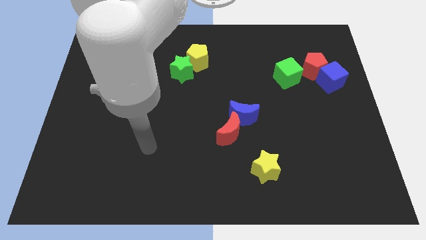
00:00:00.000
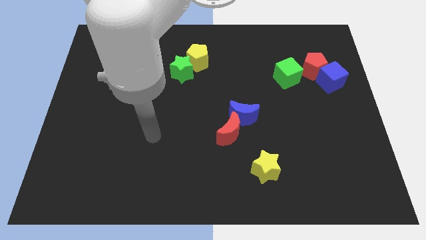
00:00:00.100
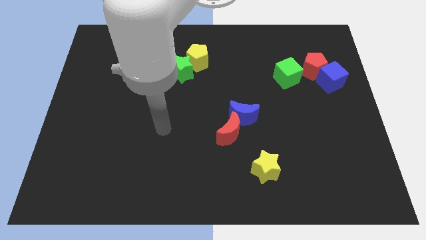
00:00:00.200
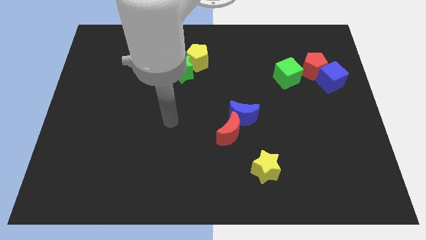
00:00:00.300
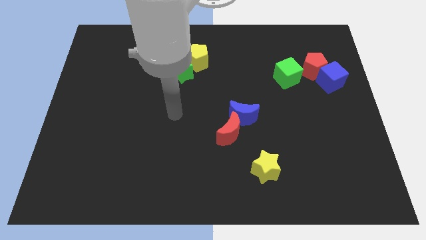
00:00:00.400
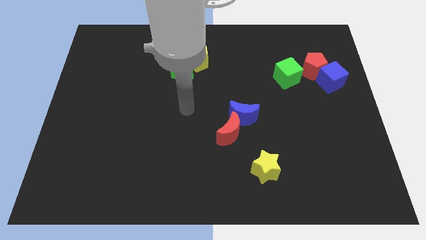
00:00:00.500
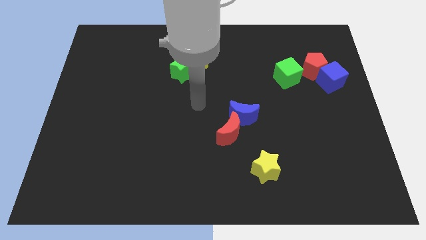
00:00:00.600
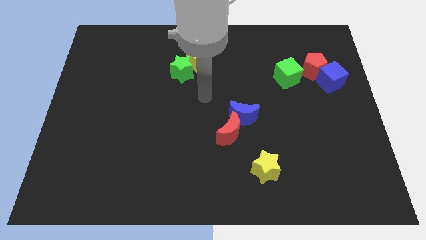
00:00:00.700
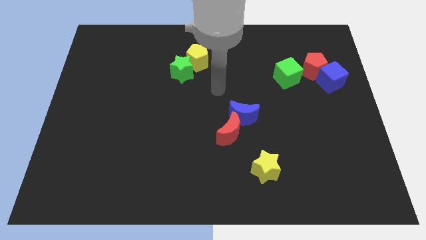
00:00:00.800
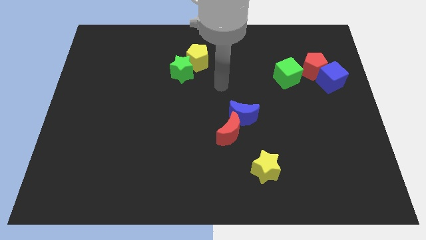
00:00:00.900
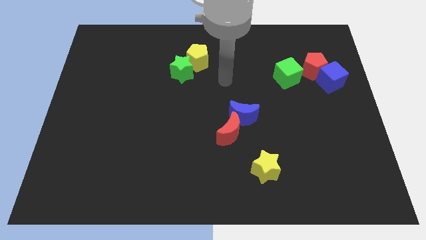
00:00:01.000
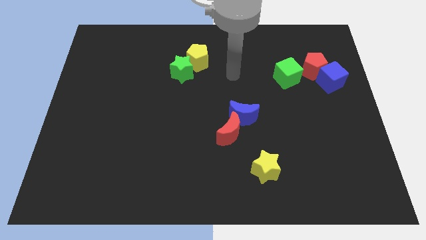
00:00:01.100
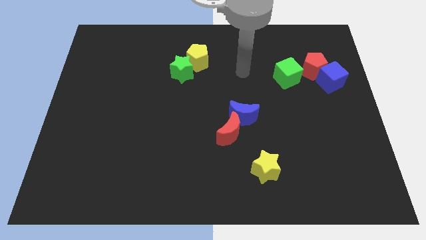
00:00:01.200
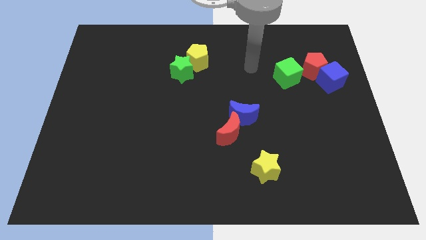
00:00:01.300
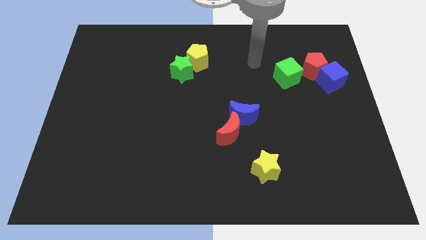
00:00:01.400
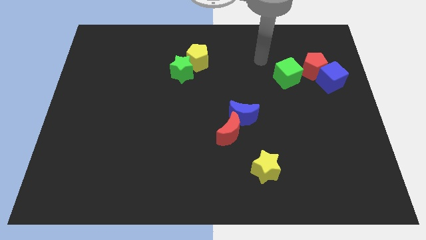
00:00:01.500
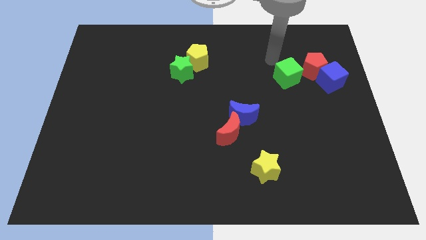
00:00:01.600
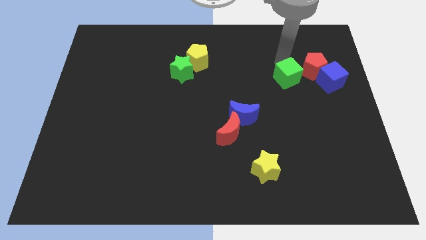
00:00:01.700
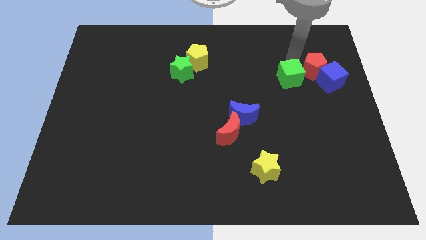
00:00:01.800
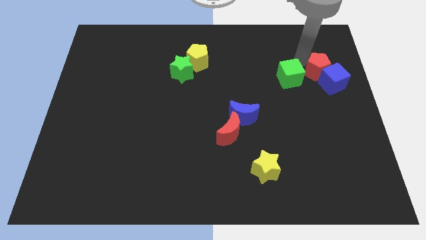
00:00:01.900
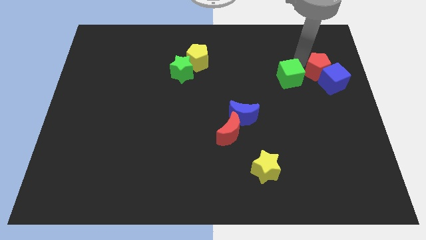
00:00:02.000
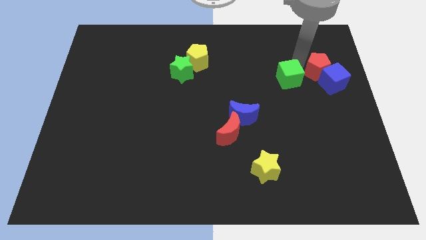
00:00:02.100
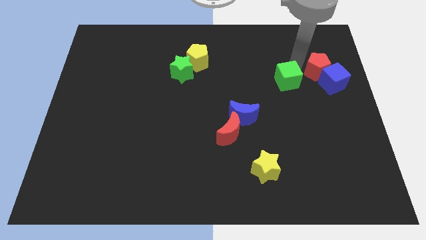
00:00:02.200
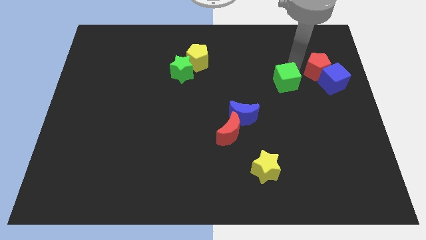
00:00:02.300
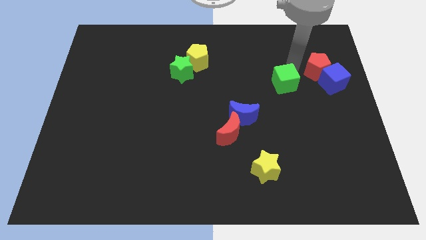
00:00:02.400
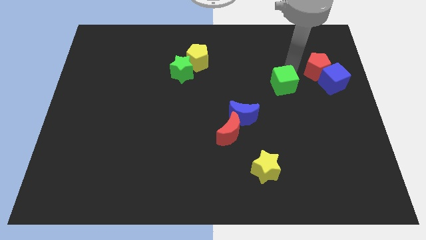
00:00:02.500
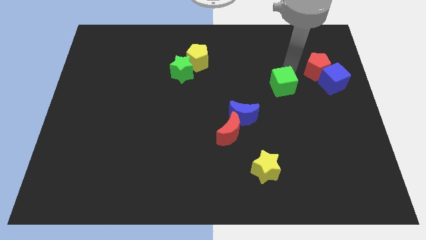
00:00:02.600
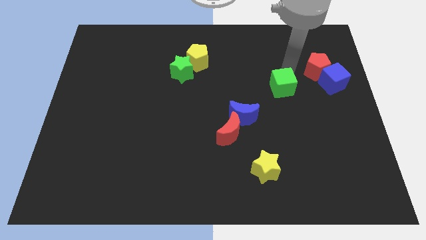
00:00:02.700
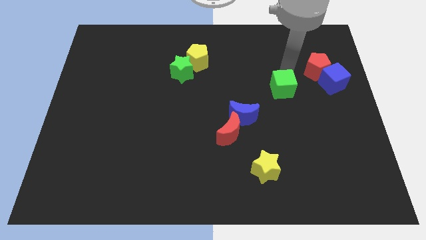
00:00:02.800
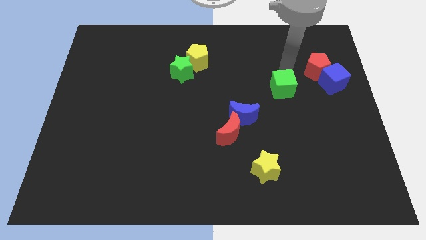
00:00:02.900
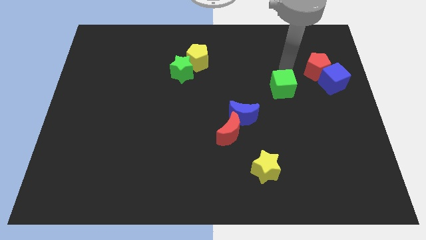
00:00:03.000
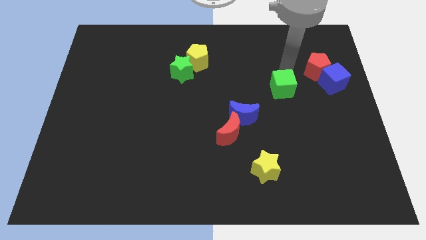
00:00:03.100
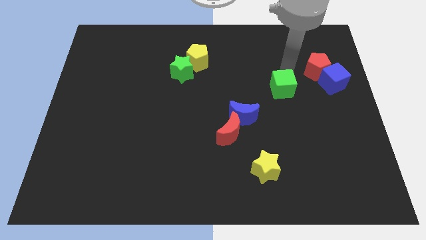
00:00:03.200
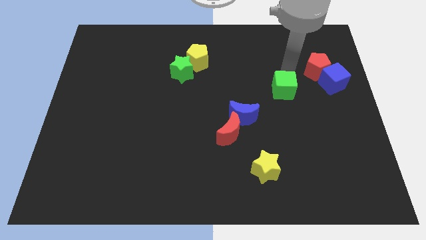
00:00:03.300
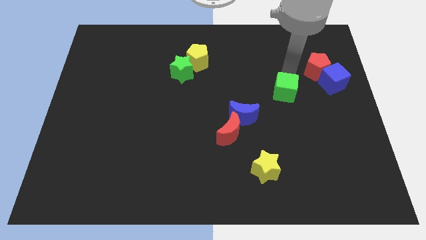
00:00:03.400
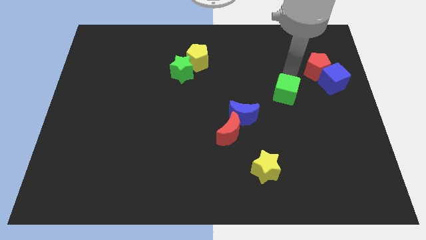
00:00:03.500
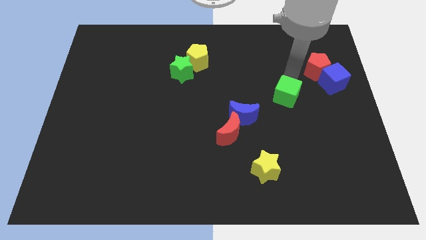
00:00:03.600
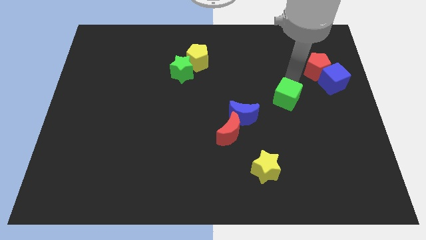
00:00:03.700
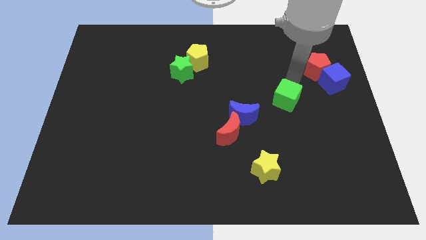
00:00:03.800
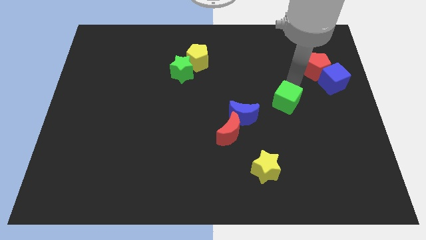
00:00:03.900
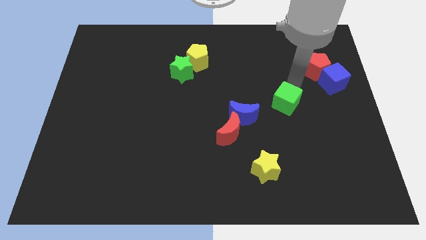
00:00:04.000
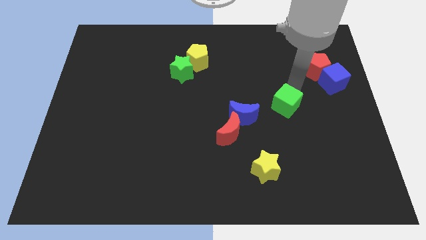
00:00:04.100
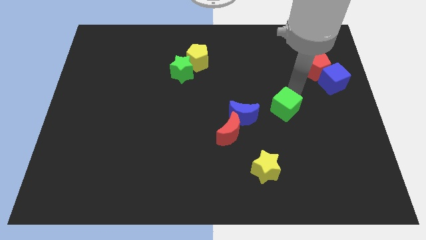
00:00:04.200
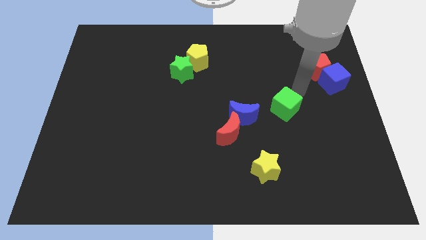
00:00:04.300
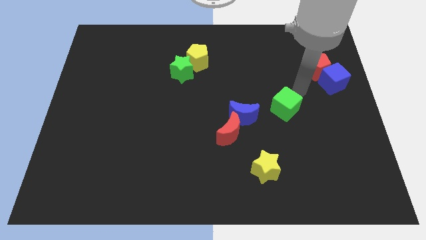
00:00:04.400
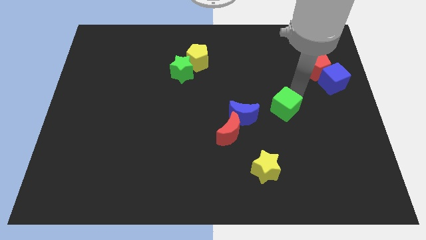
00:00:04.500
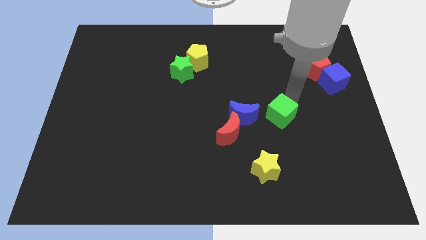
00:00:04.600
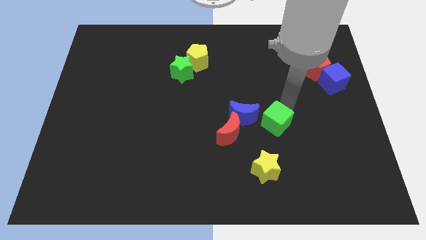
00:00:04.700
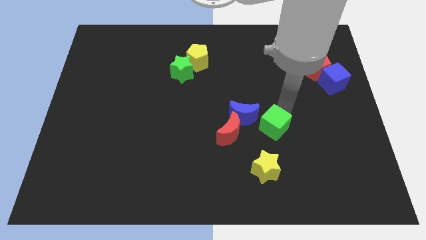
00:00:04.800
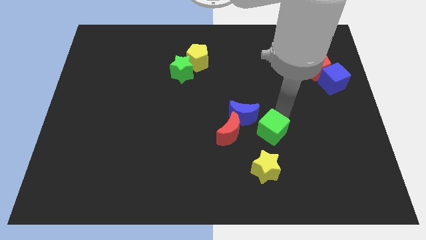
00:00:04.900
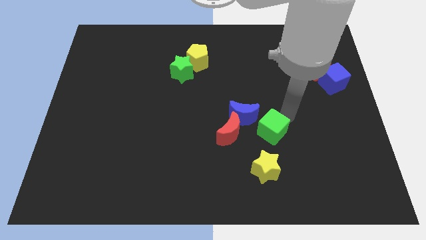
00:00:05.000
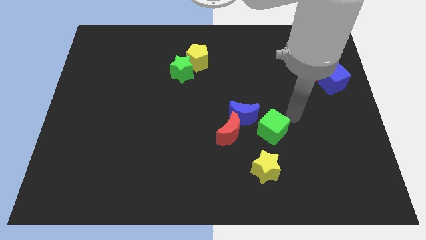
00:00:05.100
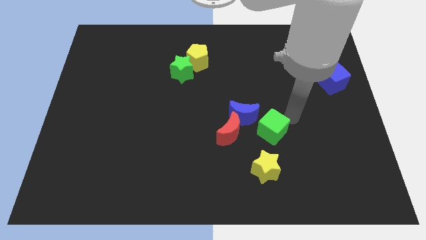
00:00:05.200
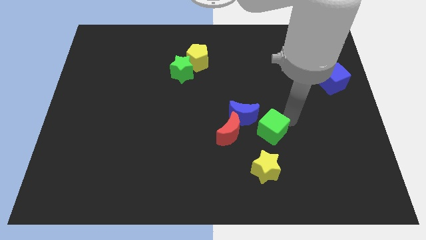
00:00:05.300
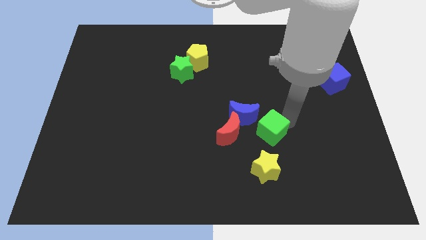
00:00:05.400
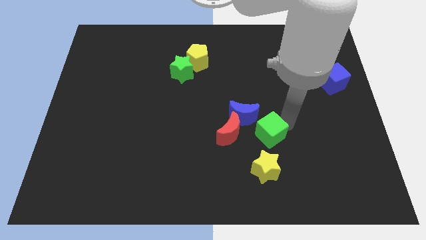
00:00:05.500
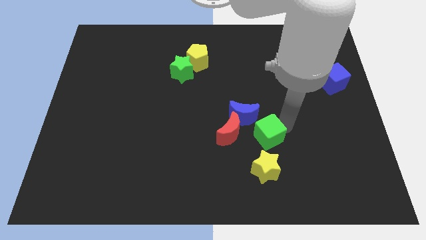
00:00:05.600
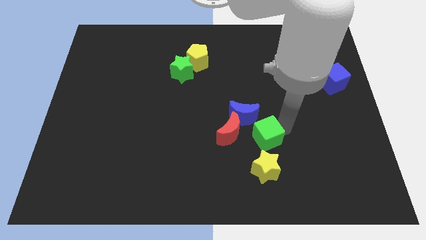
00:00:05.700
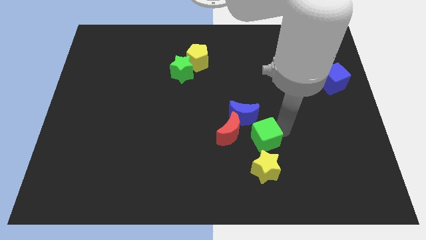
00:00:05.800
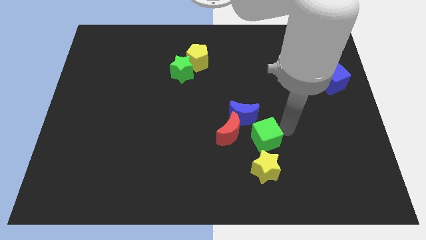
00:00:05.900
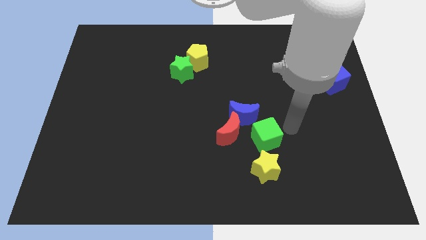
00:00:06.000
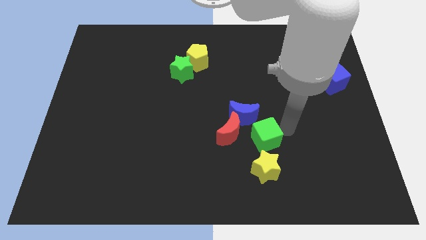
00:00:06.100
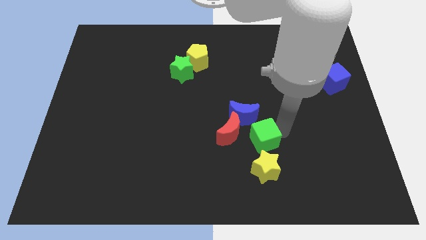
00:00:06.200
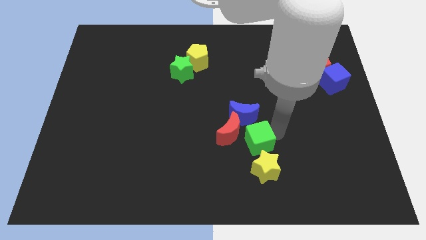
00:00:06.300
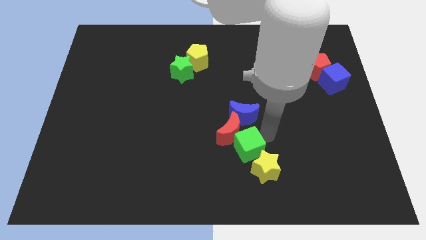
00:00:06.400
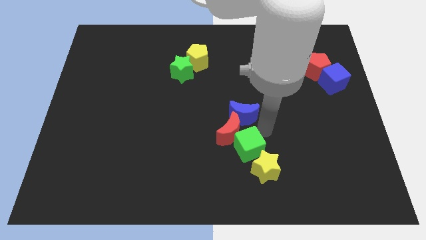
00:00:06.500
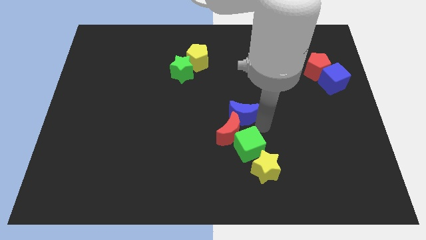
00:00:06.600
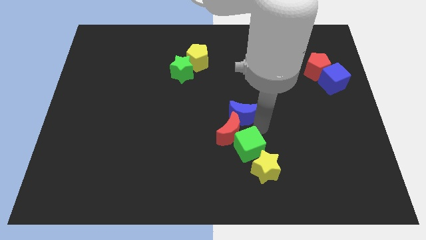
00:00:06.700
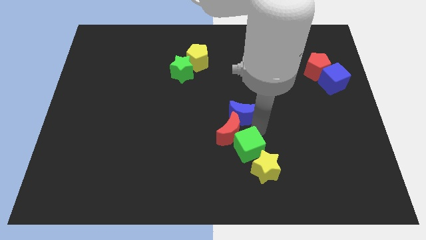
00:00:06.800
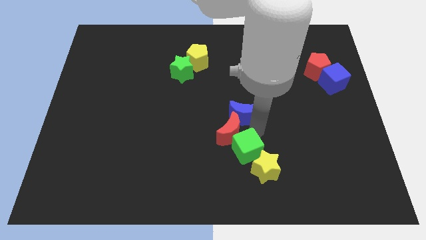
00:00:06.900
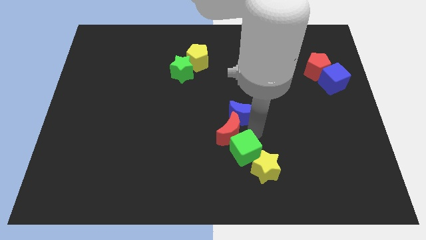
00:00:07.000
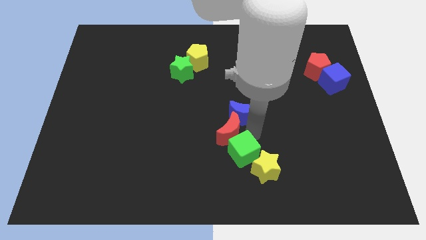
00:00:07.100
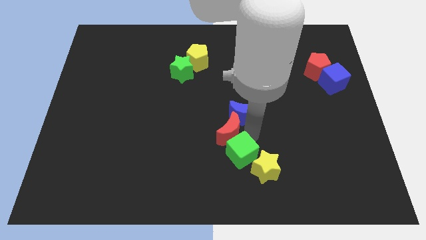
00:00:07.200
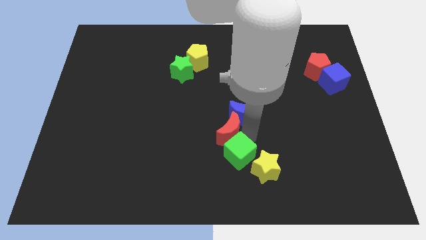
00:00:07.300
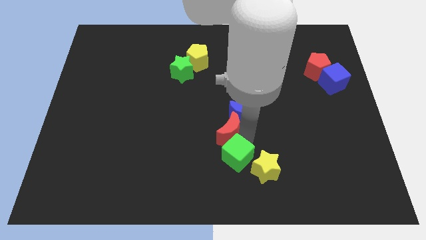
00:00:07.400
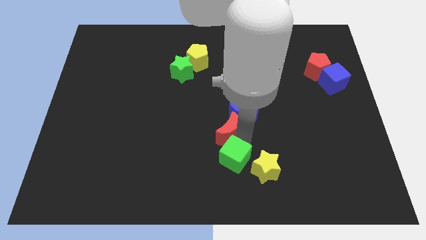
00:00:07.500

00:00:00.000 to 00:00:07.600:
move the green cube to the bottom side

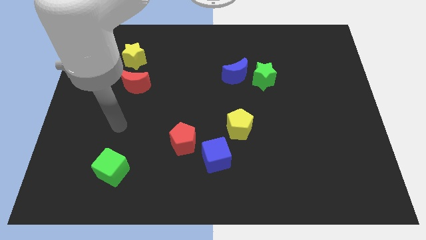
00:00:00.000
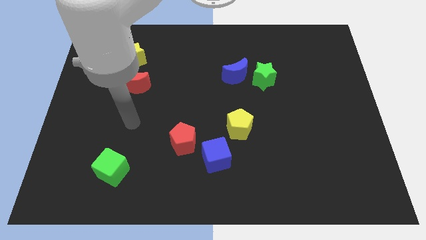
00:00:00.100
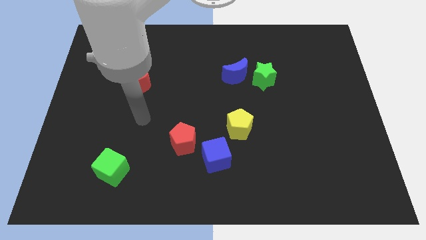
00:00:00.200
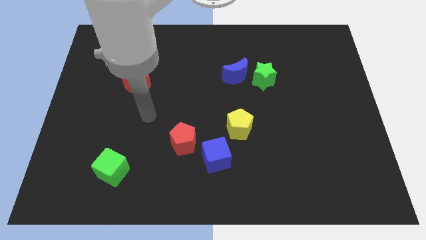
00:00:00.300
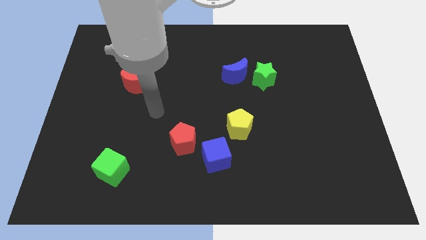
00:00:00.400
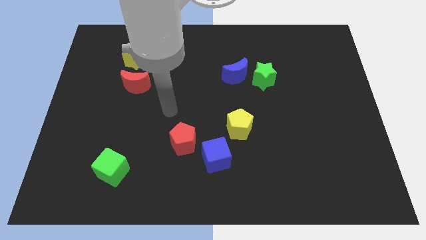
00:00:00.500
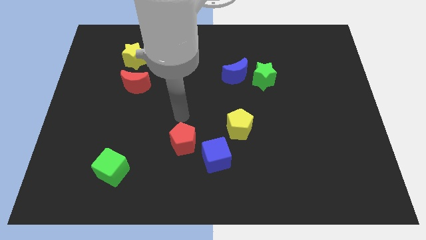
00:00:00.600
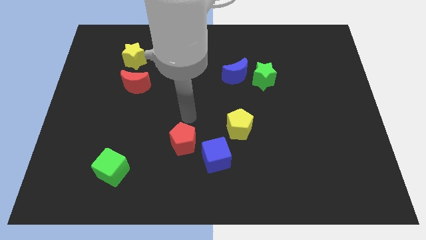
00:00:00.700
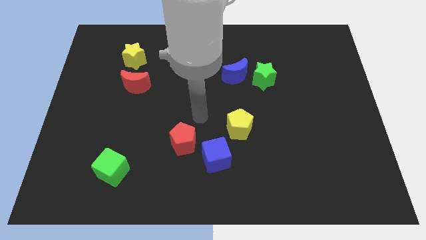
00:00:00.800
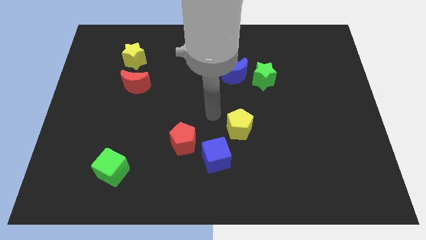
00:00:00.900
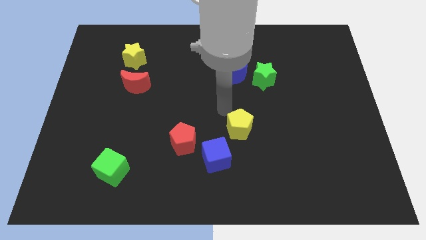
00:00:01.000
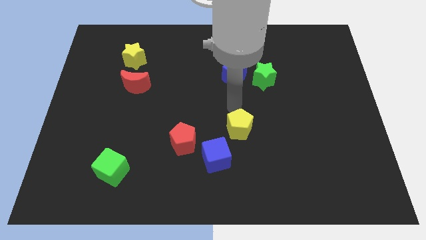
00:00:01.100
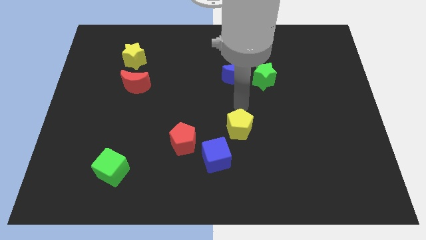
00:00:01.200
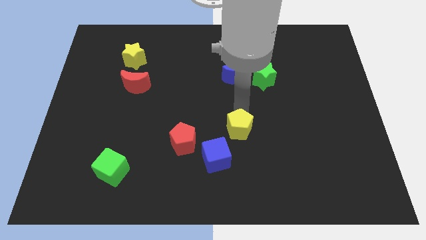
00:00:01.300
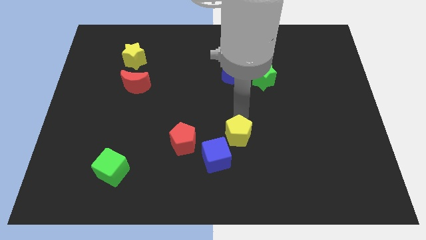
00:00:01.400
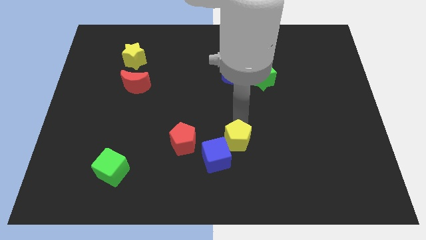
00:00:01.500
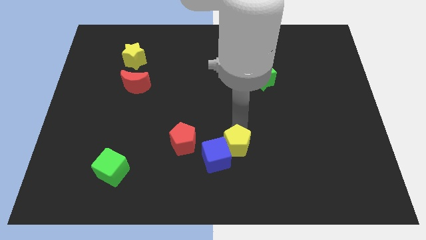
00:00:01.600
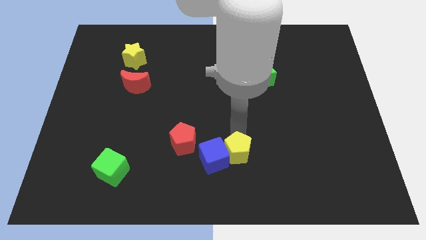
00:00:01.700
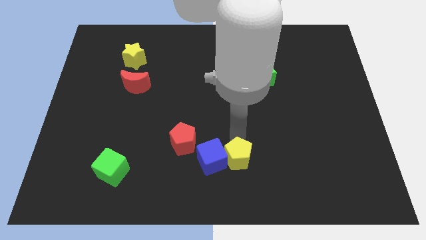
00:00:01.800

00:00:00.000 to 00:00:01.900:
move the yellow pentagon to the bottom
